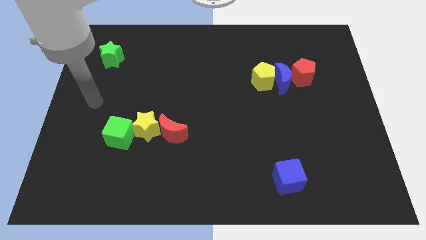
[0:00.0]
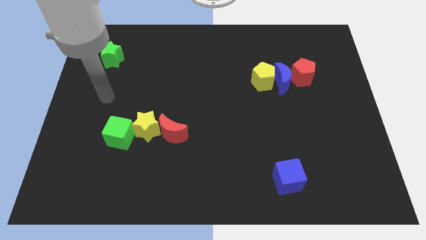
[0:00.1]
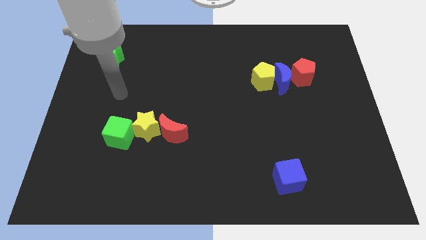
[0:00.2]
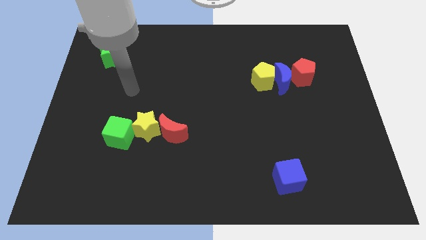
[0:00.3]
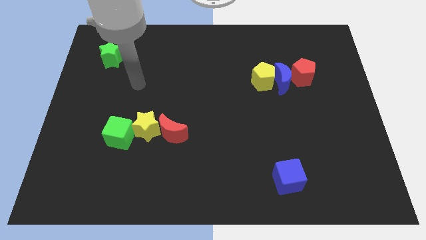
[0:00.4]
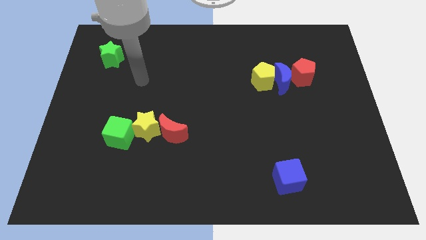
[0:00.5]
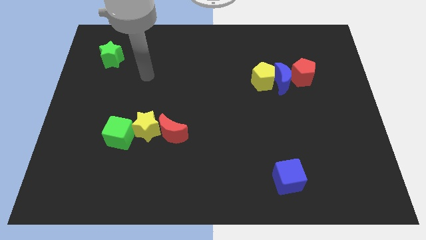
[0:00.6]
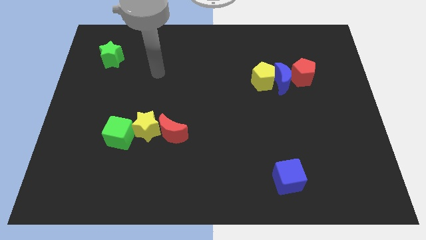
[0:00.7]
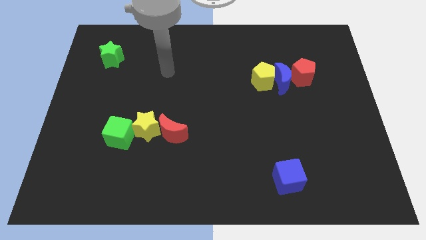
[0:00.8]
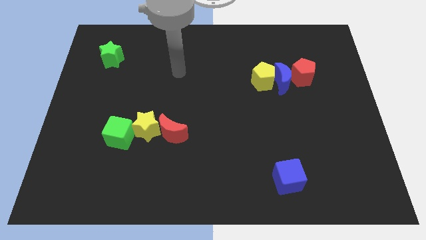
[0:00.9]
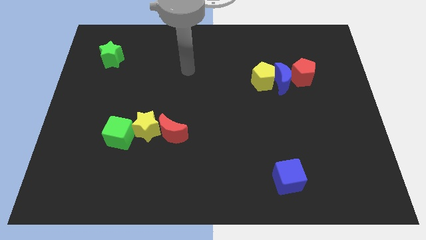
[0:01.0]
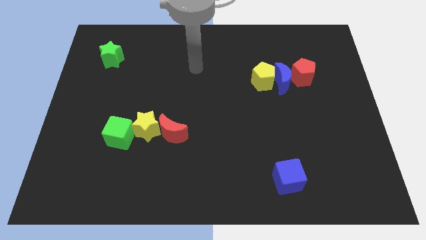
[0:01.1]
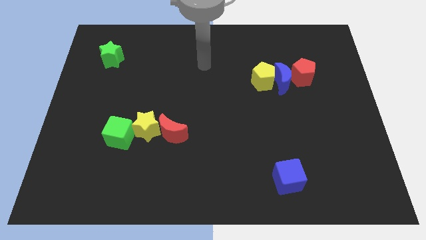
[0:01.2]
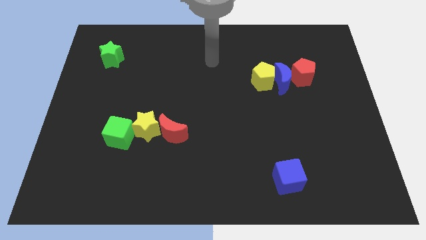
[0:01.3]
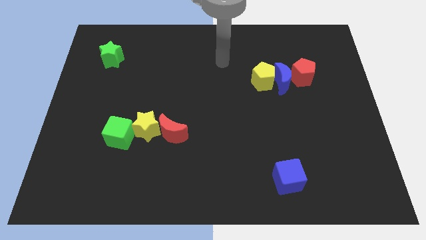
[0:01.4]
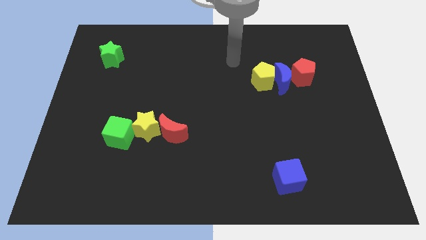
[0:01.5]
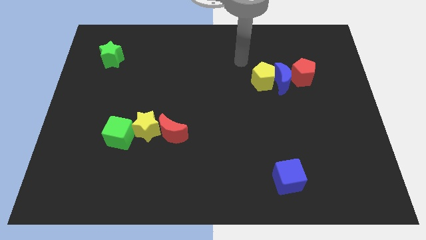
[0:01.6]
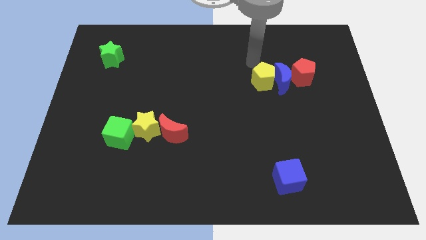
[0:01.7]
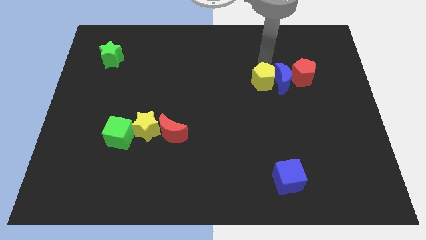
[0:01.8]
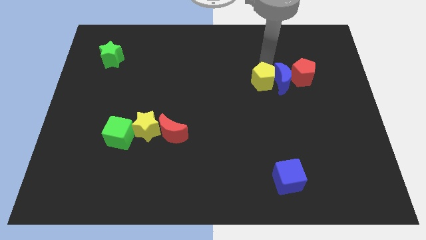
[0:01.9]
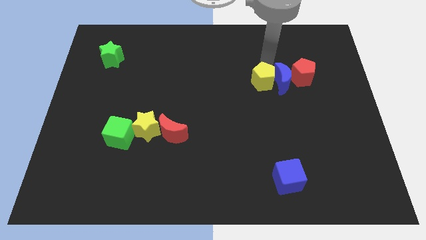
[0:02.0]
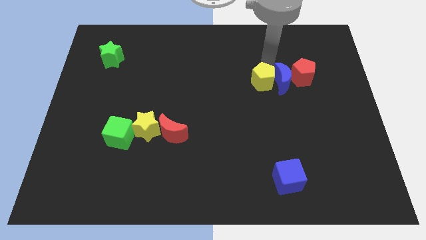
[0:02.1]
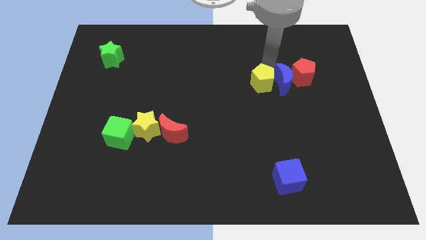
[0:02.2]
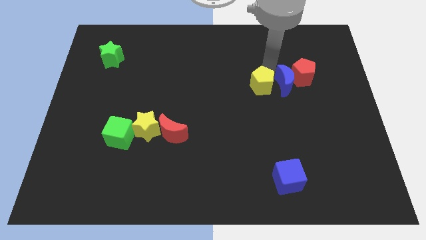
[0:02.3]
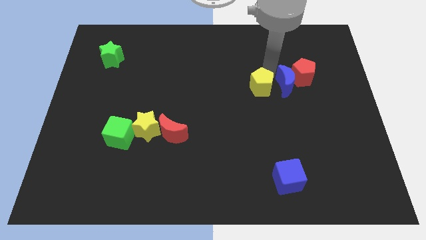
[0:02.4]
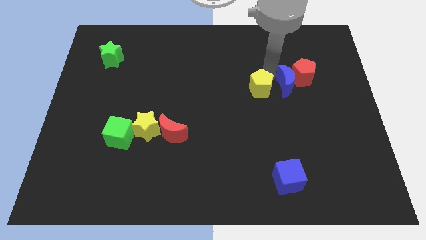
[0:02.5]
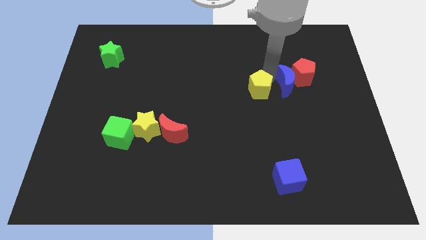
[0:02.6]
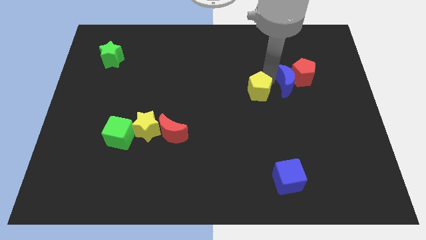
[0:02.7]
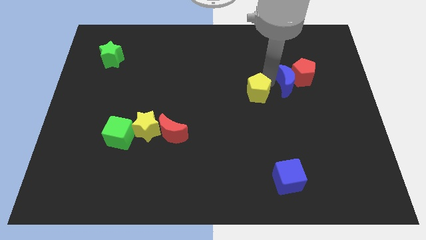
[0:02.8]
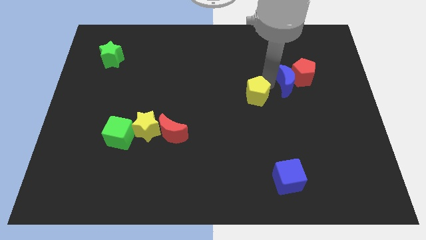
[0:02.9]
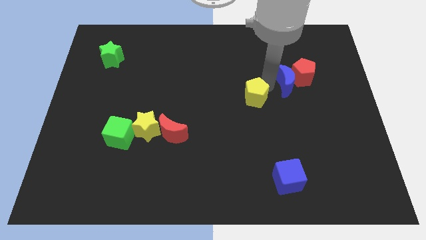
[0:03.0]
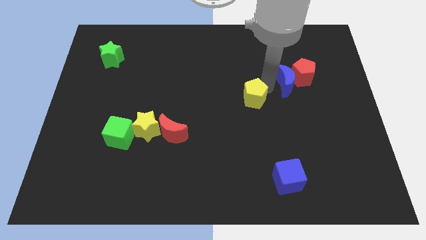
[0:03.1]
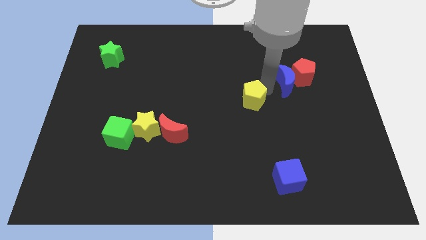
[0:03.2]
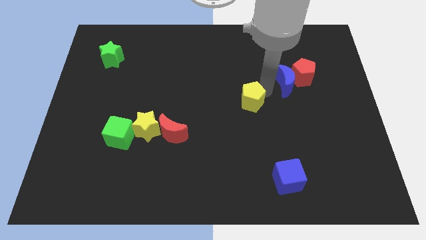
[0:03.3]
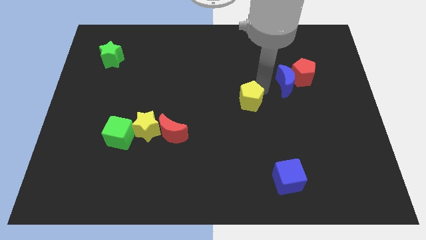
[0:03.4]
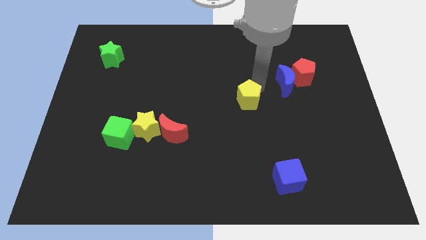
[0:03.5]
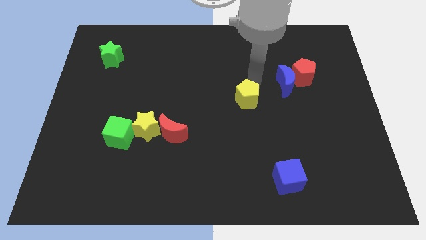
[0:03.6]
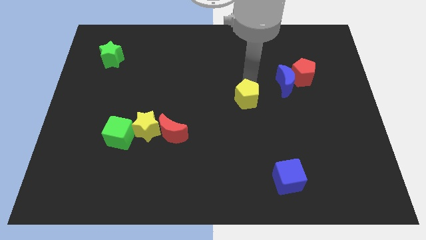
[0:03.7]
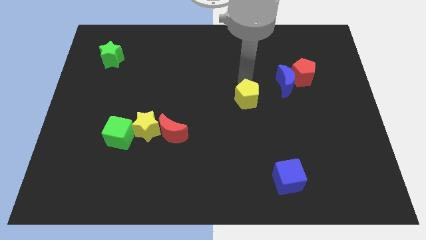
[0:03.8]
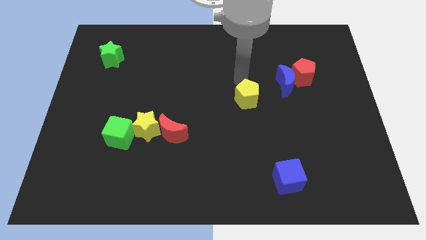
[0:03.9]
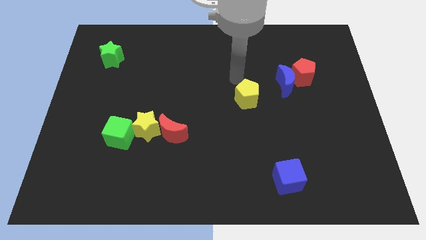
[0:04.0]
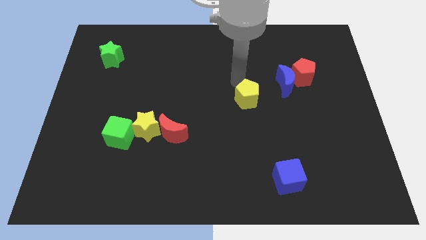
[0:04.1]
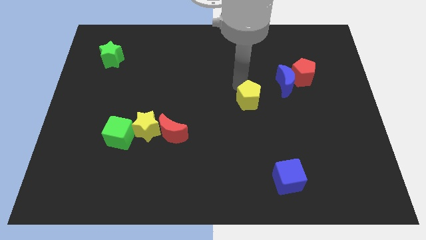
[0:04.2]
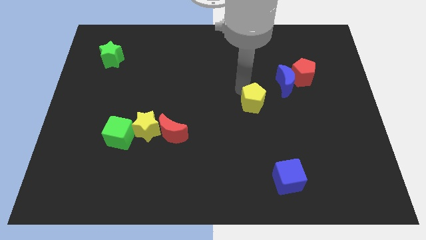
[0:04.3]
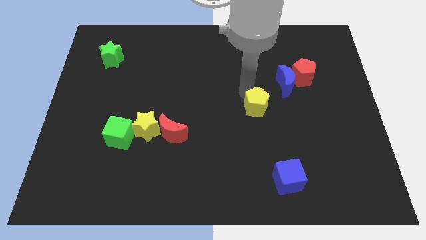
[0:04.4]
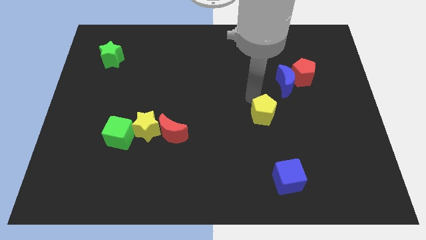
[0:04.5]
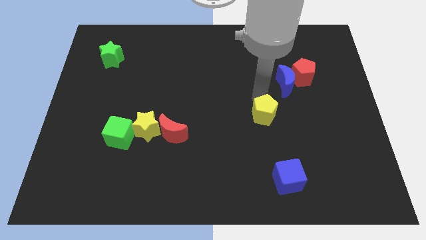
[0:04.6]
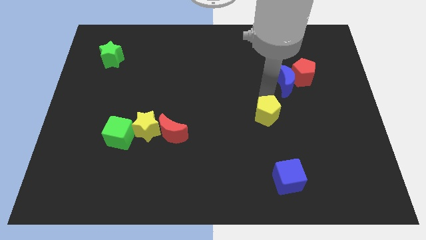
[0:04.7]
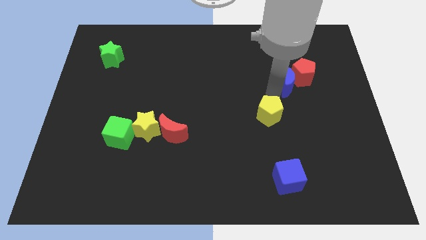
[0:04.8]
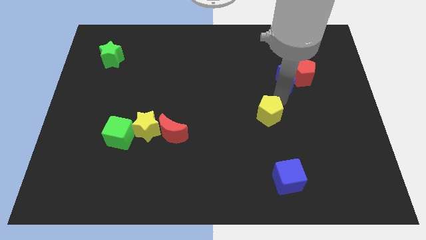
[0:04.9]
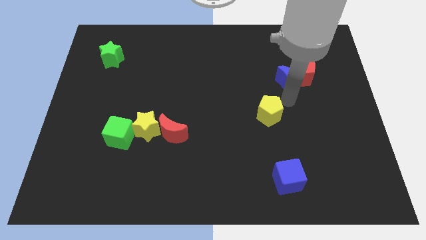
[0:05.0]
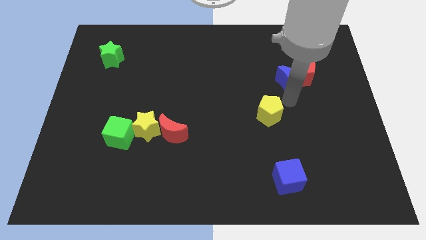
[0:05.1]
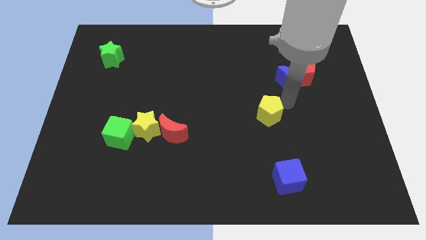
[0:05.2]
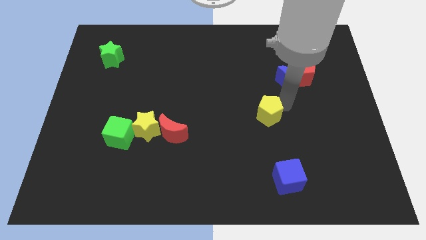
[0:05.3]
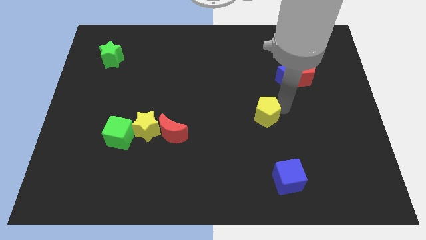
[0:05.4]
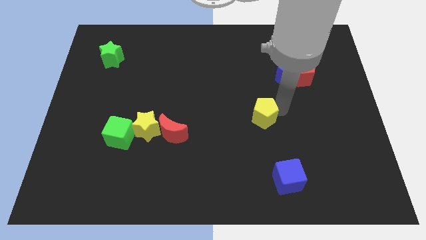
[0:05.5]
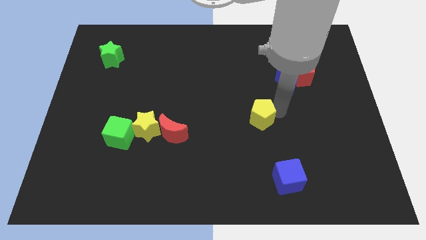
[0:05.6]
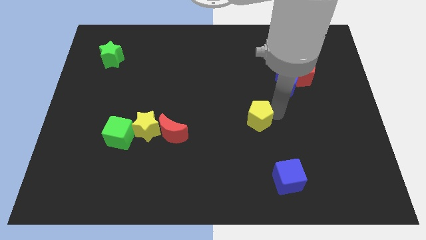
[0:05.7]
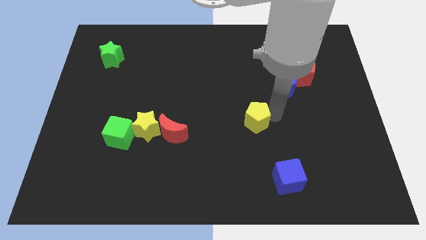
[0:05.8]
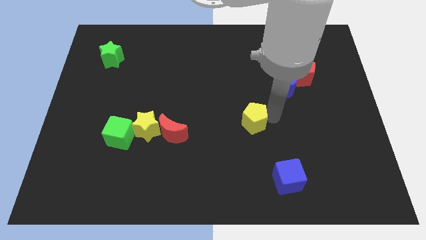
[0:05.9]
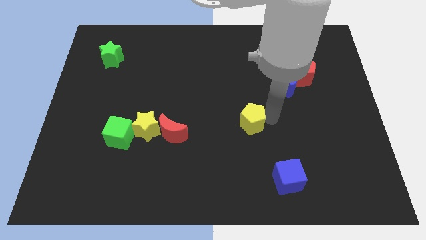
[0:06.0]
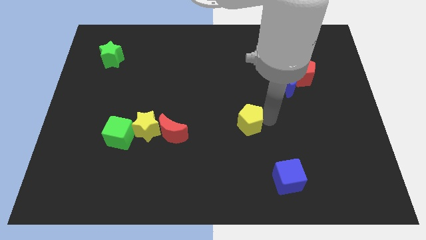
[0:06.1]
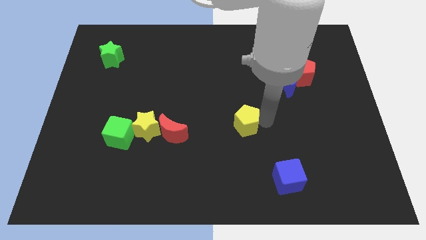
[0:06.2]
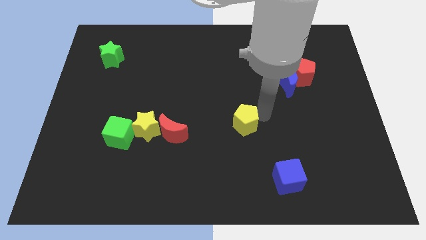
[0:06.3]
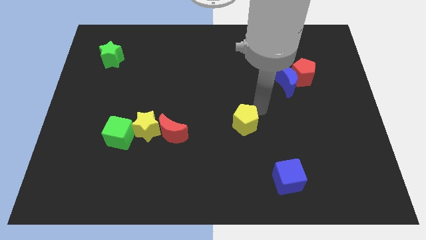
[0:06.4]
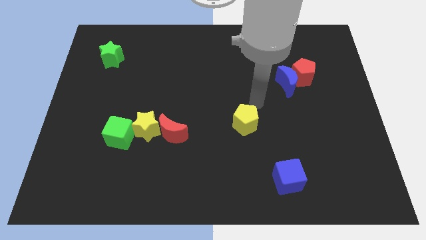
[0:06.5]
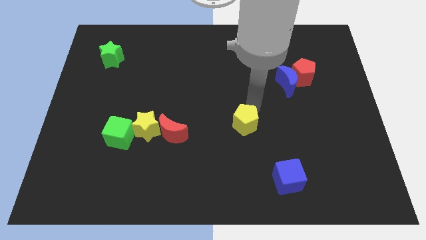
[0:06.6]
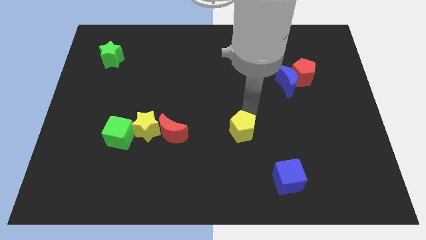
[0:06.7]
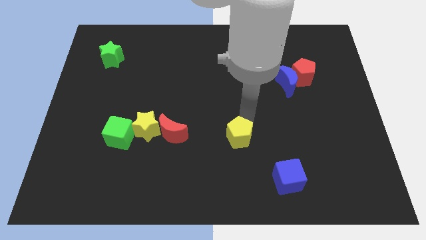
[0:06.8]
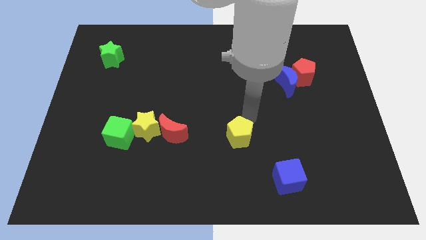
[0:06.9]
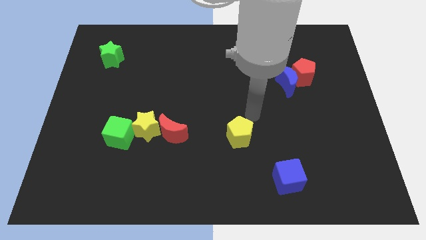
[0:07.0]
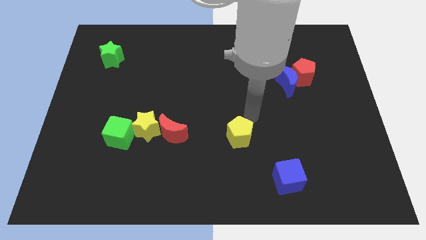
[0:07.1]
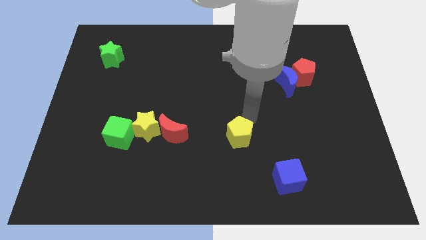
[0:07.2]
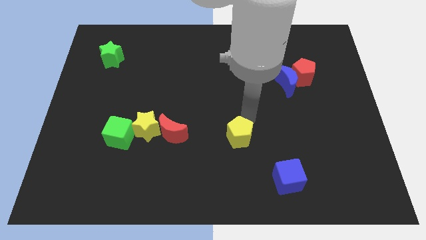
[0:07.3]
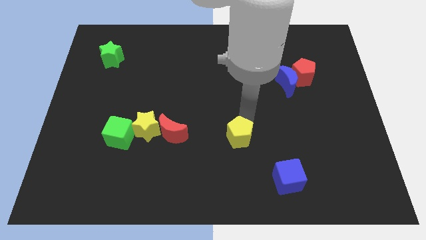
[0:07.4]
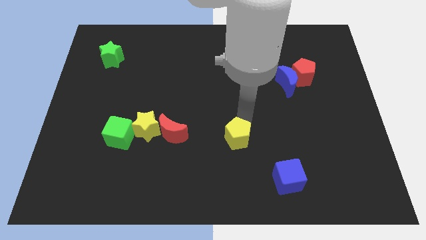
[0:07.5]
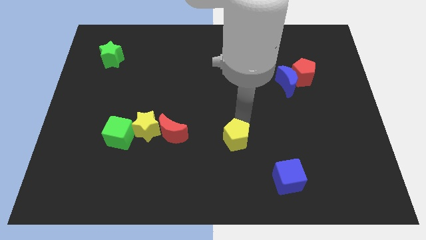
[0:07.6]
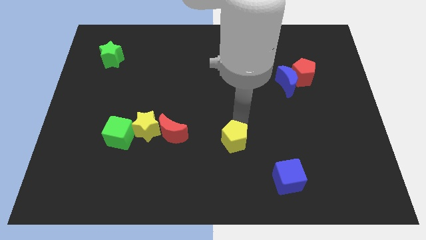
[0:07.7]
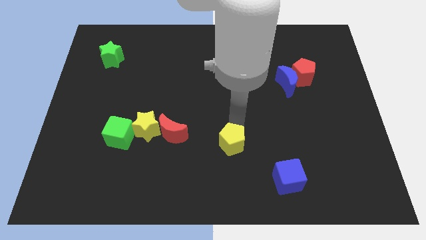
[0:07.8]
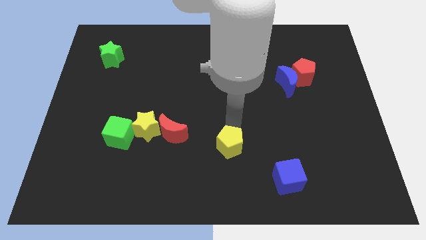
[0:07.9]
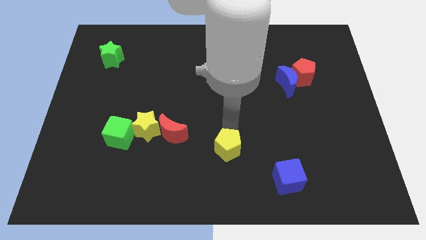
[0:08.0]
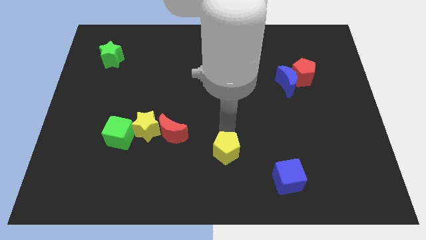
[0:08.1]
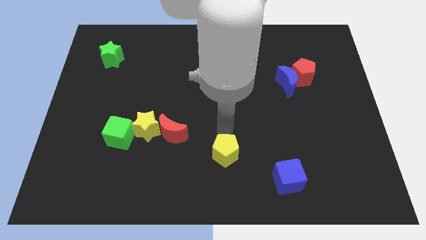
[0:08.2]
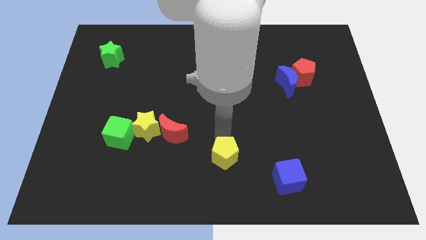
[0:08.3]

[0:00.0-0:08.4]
put the yellow pentagon to the bottom side
